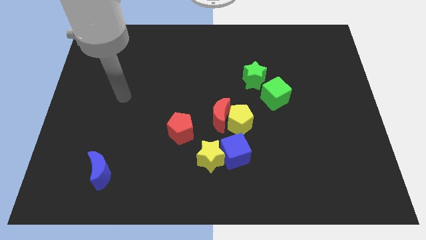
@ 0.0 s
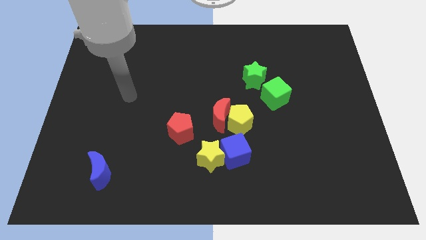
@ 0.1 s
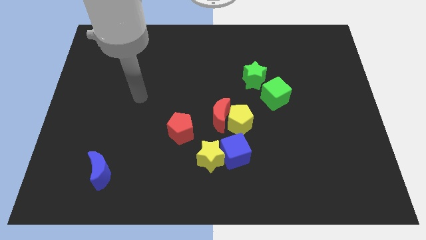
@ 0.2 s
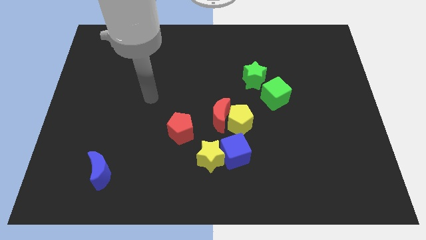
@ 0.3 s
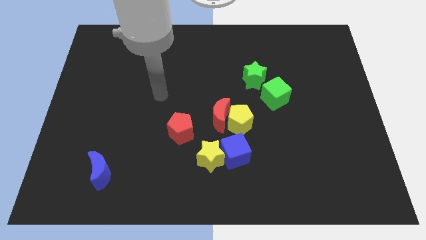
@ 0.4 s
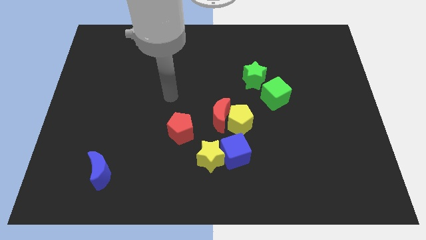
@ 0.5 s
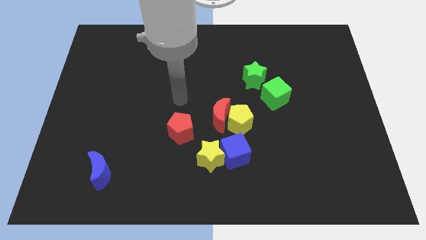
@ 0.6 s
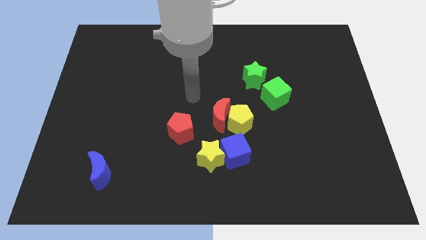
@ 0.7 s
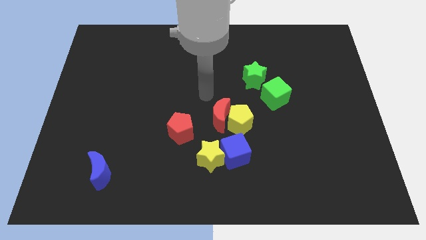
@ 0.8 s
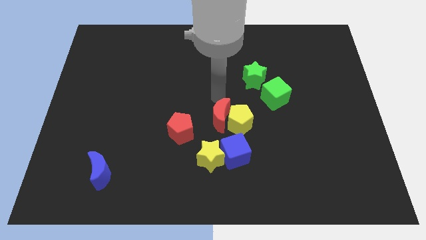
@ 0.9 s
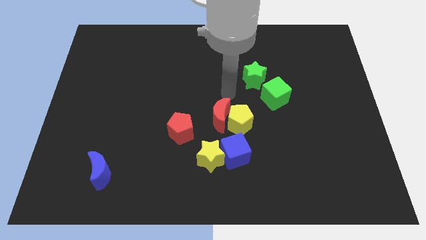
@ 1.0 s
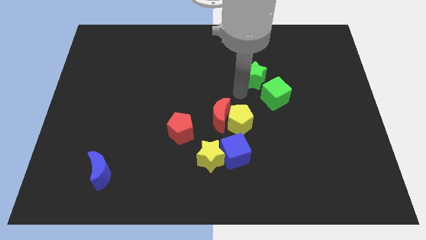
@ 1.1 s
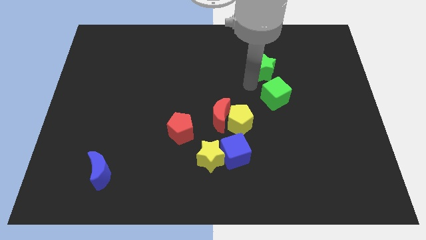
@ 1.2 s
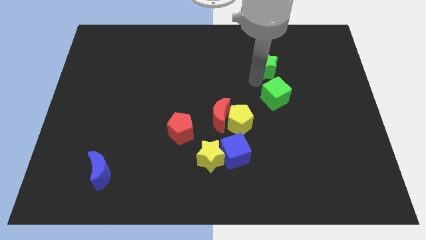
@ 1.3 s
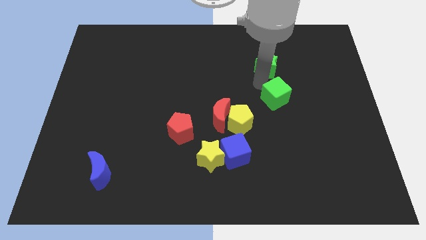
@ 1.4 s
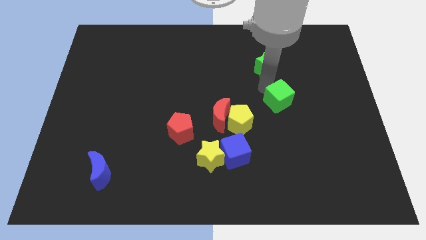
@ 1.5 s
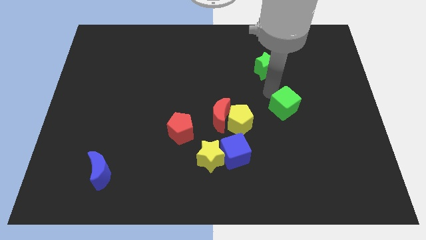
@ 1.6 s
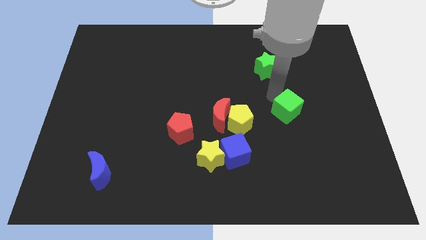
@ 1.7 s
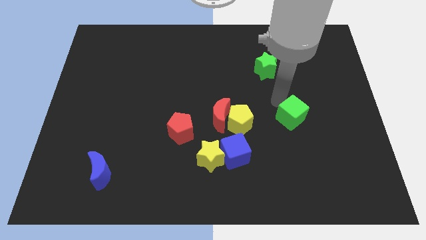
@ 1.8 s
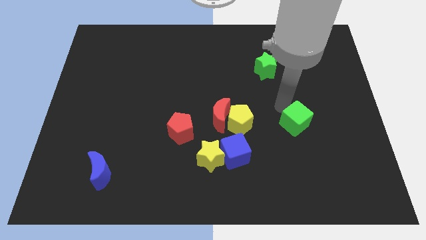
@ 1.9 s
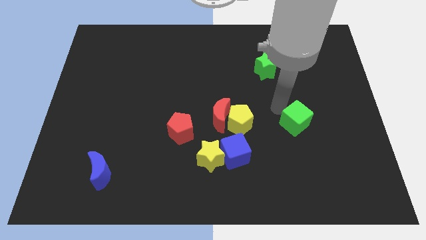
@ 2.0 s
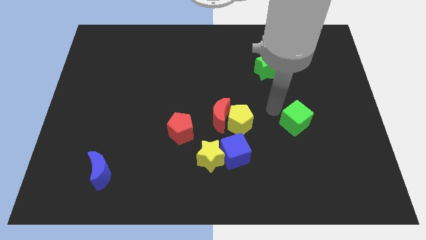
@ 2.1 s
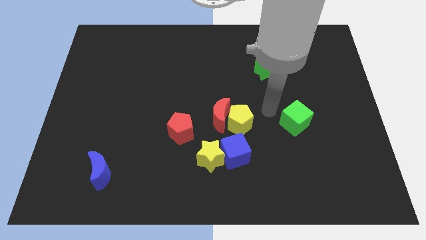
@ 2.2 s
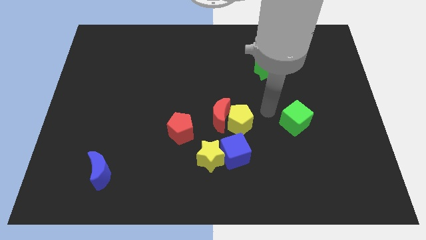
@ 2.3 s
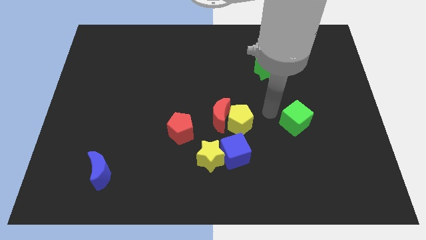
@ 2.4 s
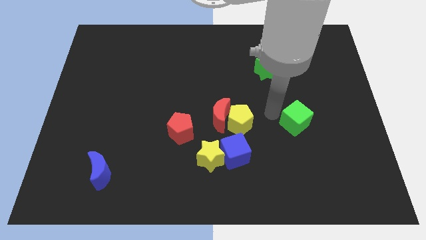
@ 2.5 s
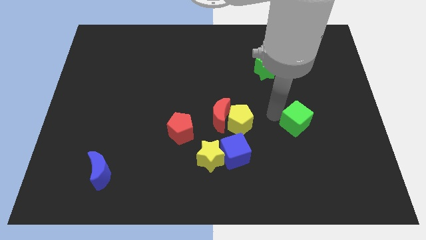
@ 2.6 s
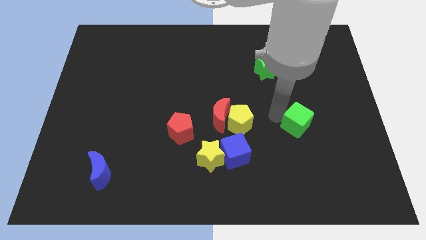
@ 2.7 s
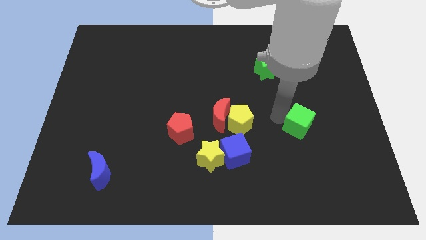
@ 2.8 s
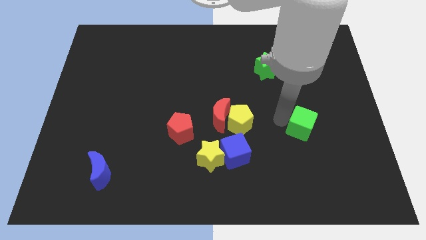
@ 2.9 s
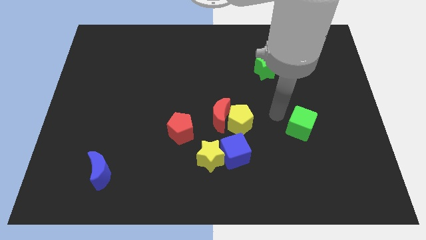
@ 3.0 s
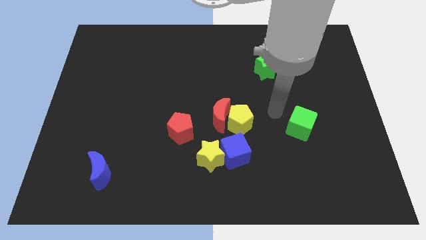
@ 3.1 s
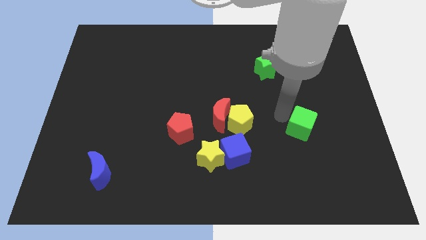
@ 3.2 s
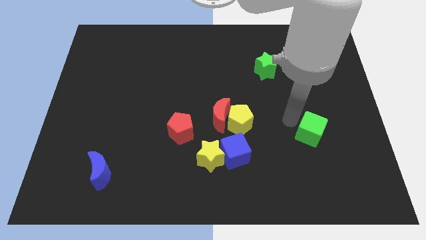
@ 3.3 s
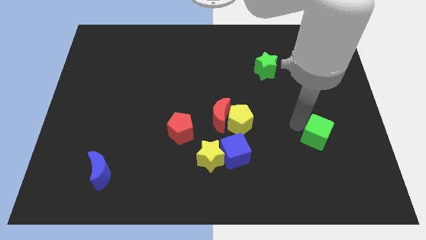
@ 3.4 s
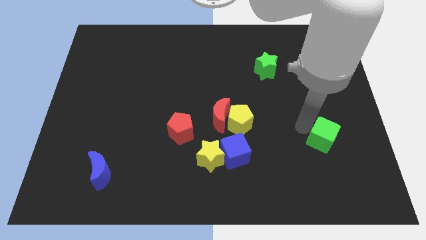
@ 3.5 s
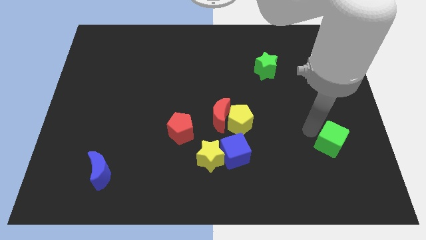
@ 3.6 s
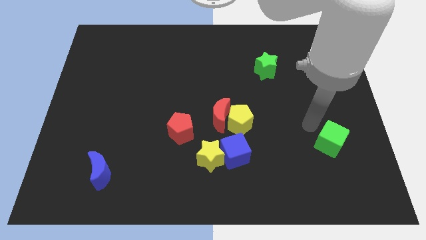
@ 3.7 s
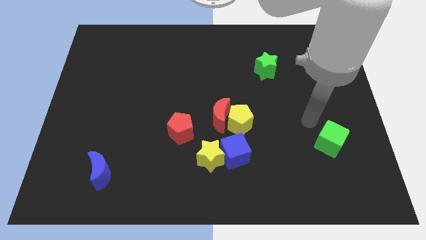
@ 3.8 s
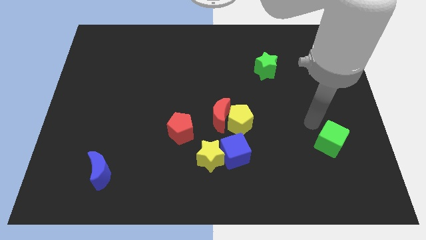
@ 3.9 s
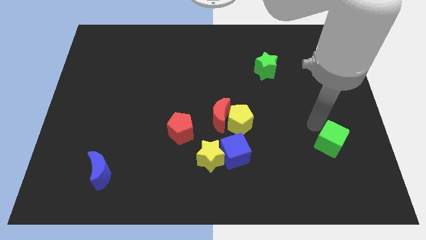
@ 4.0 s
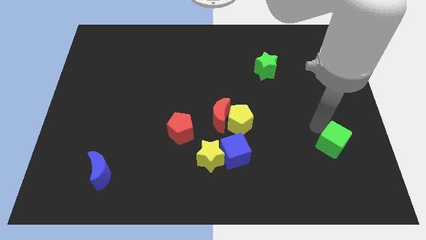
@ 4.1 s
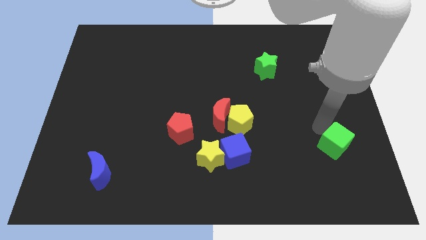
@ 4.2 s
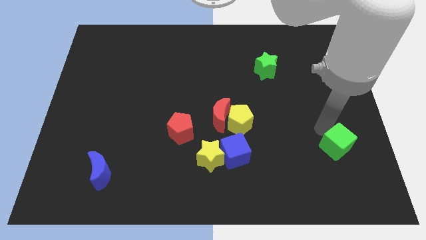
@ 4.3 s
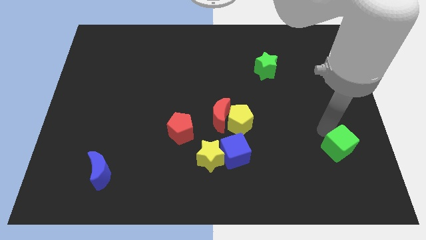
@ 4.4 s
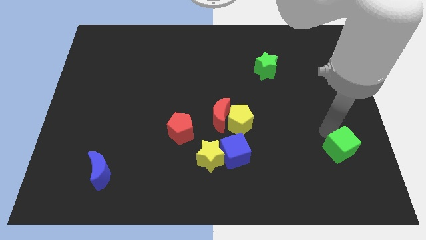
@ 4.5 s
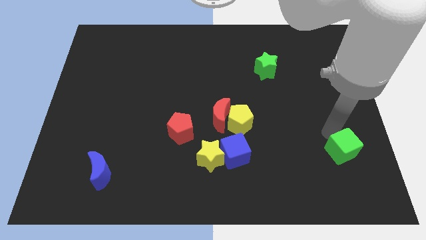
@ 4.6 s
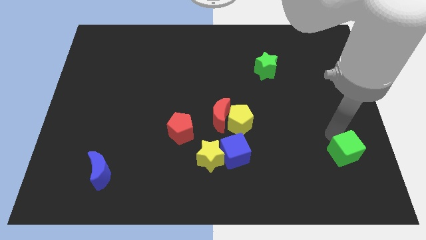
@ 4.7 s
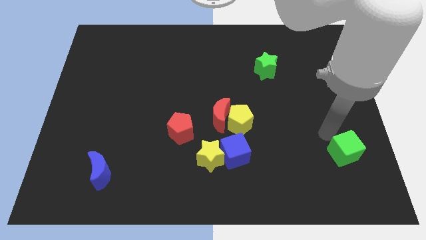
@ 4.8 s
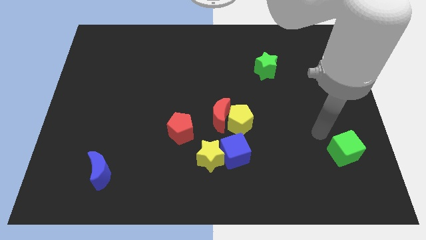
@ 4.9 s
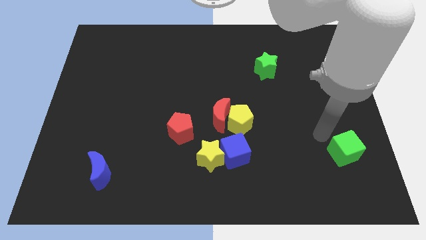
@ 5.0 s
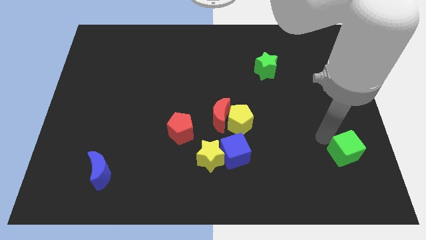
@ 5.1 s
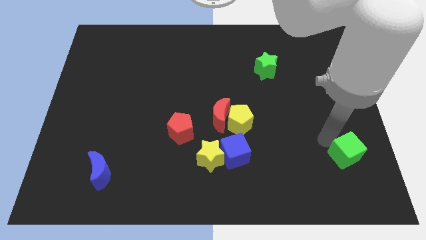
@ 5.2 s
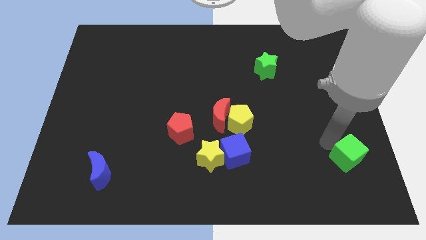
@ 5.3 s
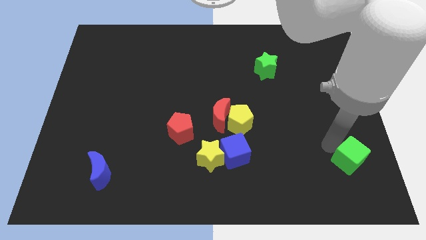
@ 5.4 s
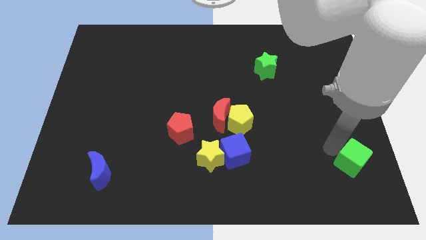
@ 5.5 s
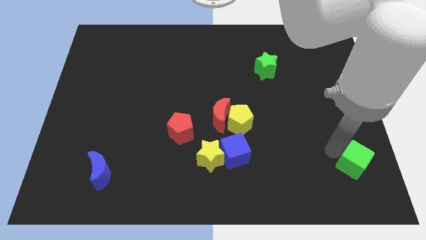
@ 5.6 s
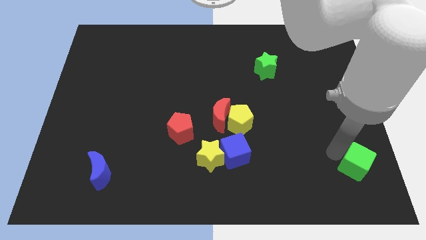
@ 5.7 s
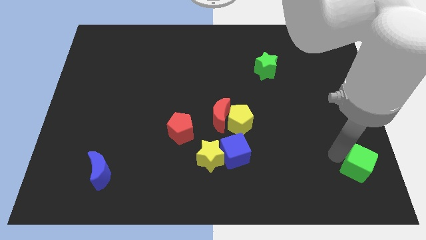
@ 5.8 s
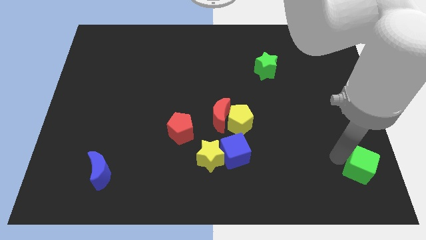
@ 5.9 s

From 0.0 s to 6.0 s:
move the green cube to the lower right corner
